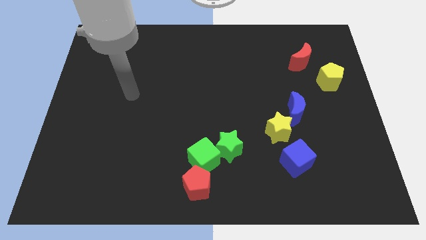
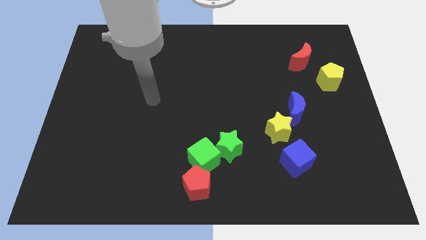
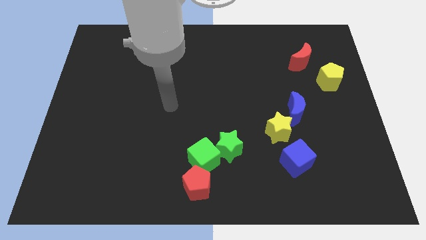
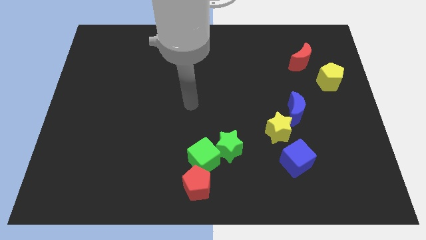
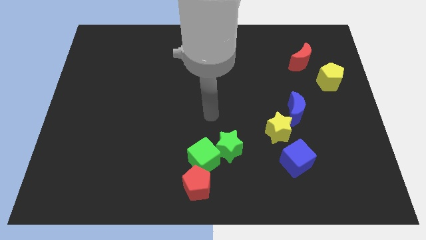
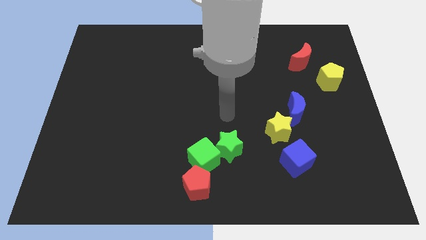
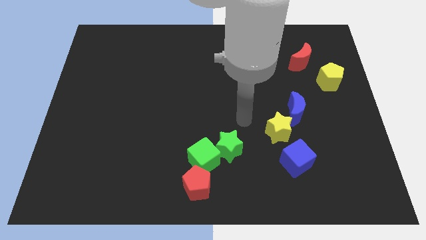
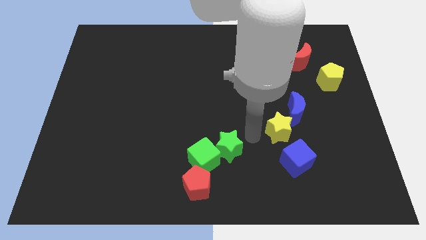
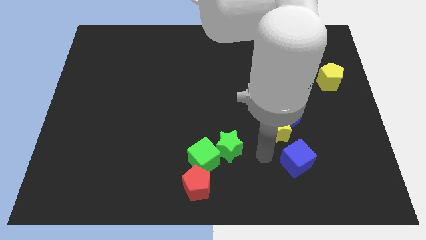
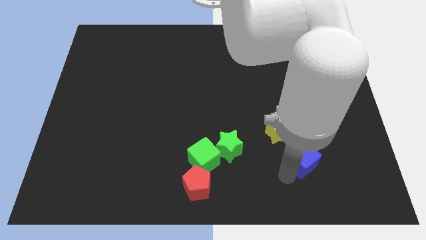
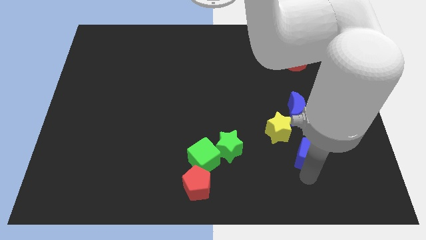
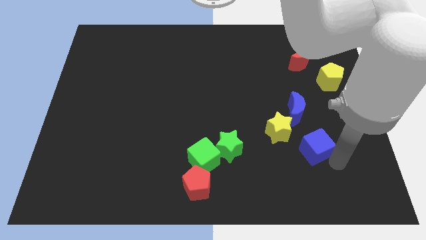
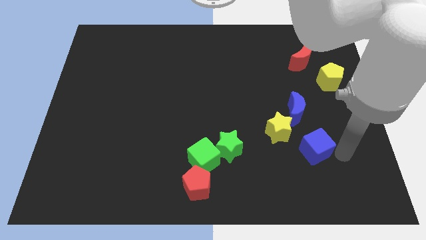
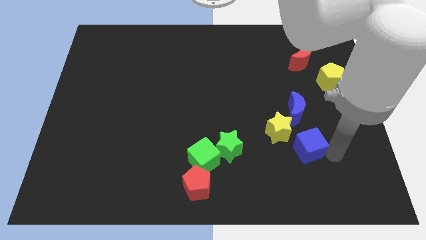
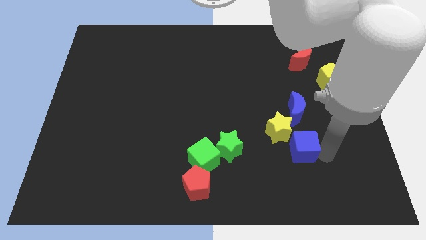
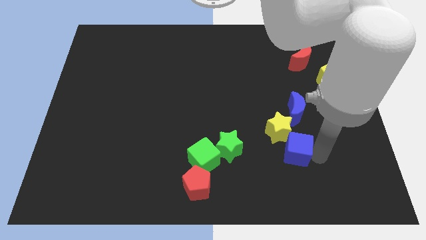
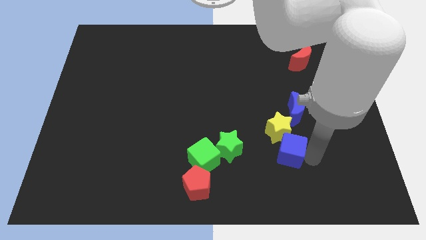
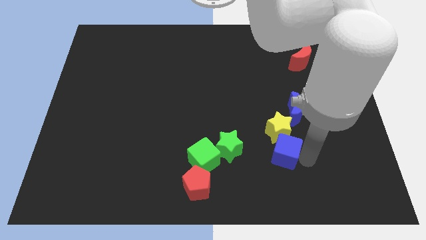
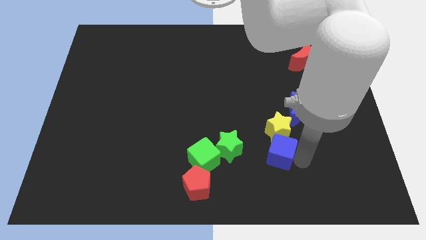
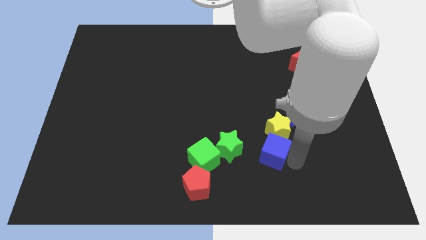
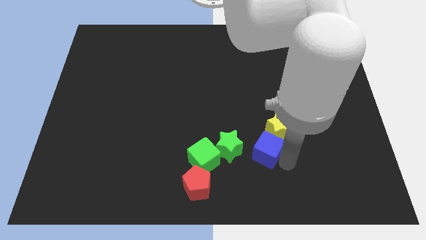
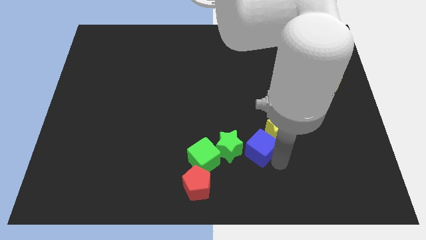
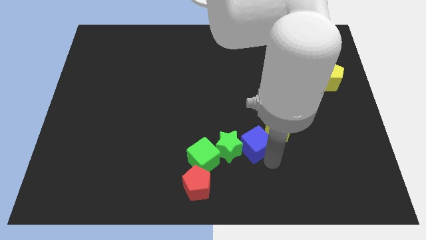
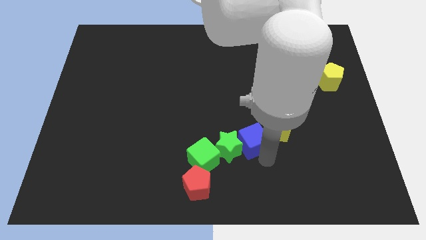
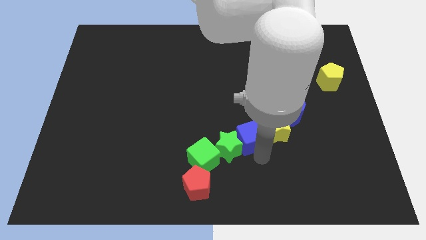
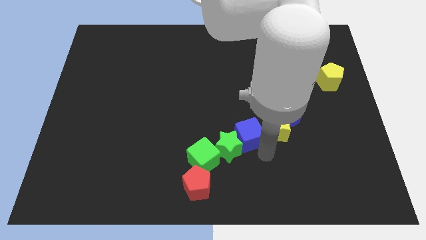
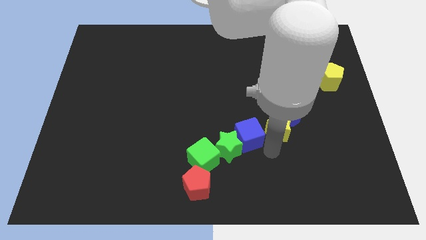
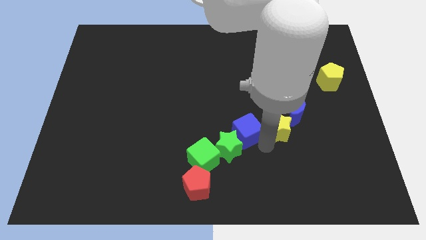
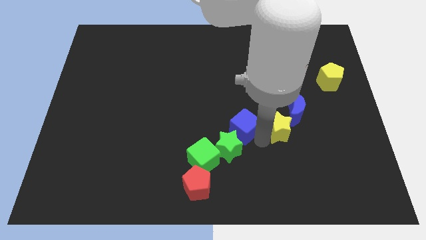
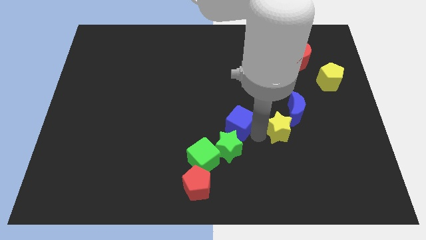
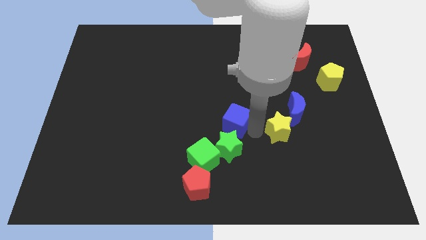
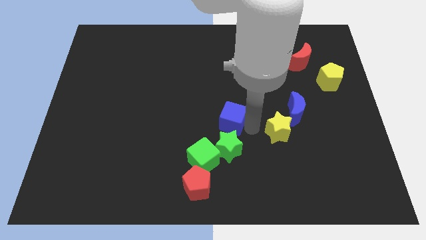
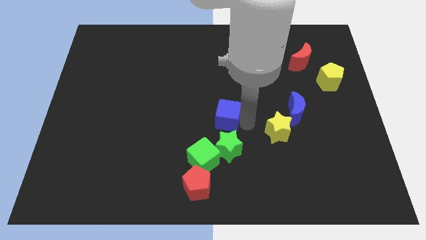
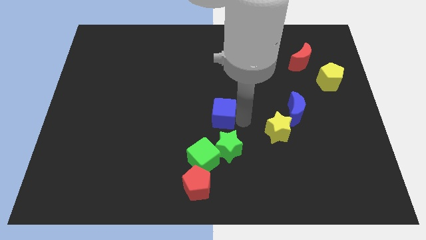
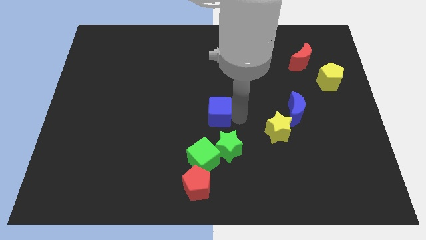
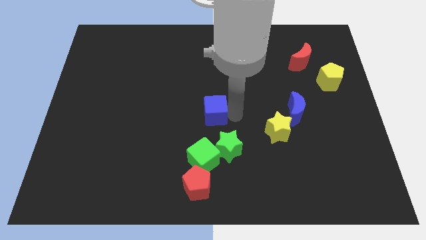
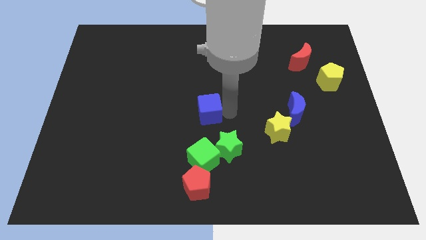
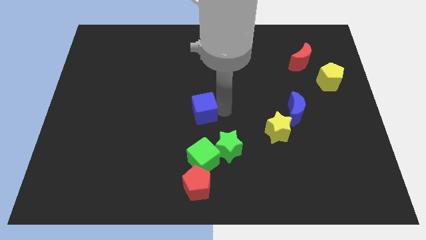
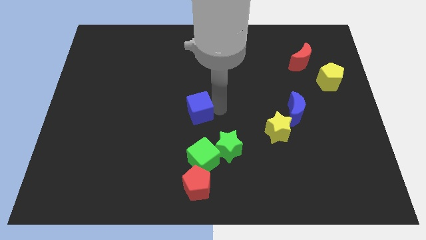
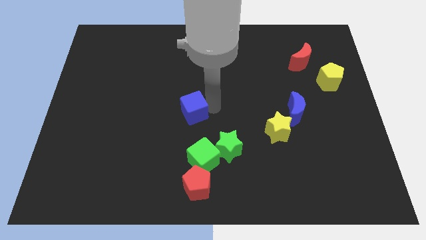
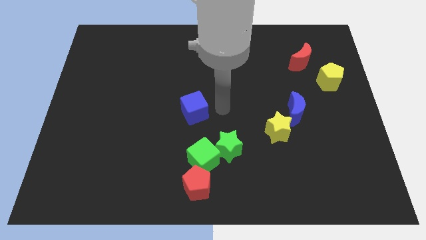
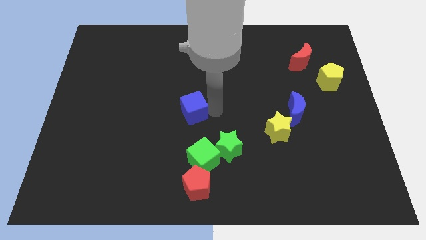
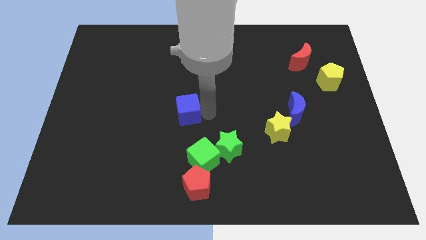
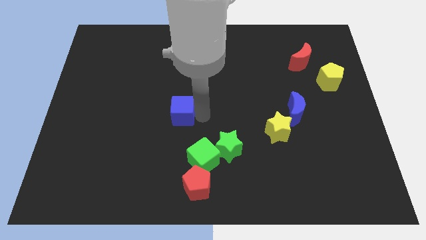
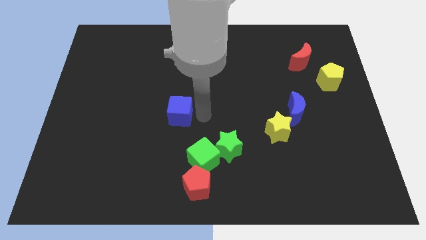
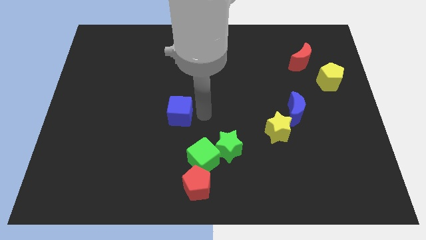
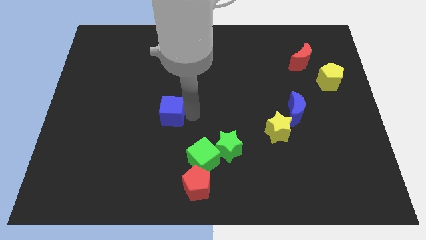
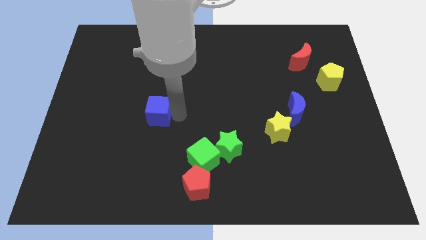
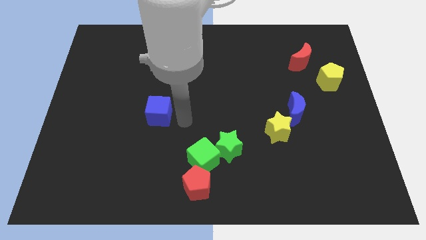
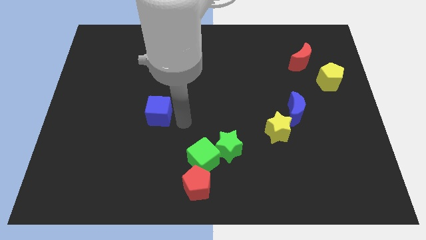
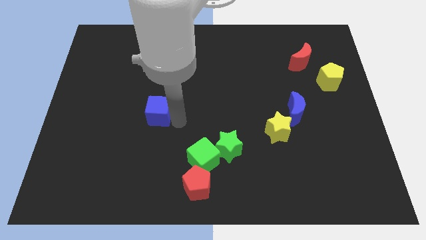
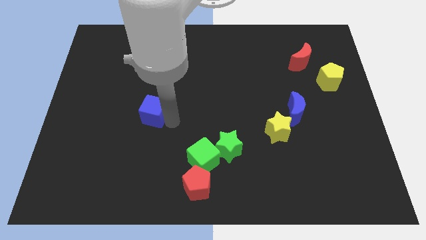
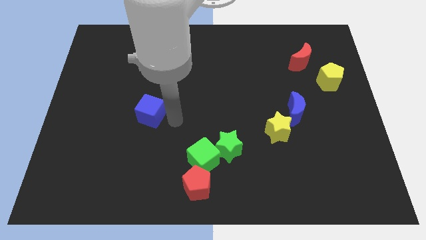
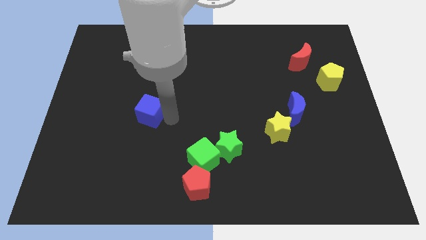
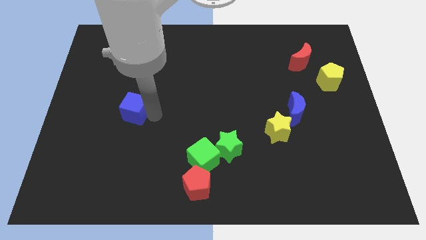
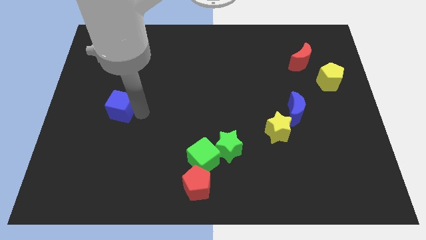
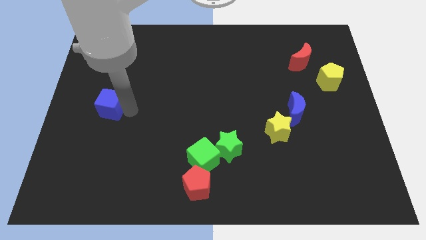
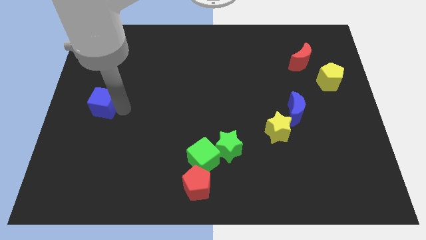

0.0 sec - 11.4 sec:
move the blue cube to the left side of the board
